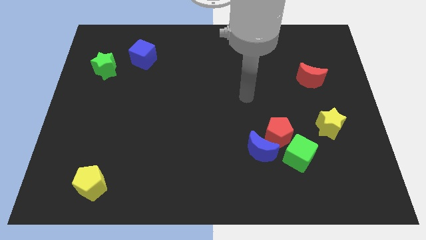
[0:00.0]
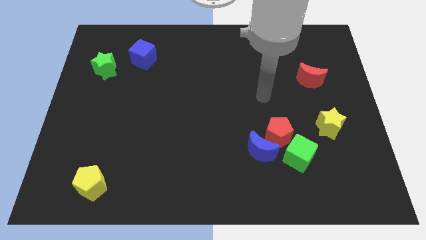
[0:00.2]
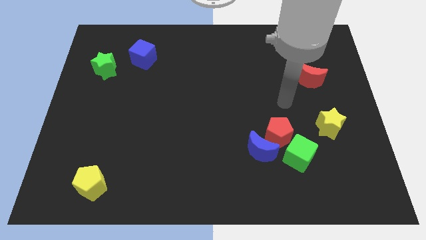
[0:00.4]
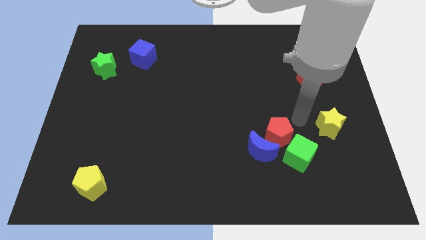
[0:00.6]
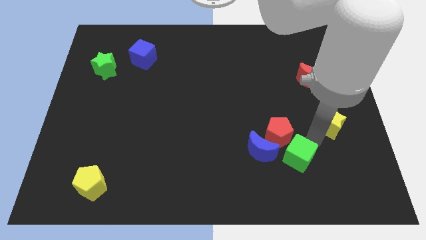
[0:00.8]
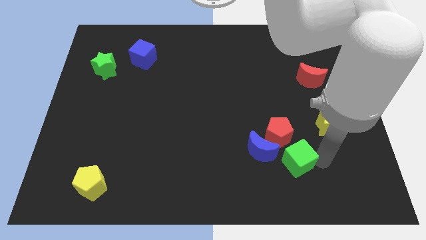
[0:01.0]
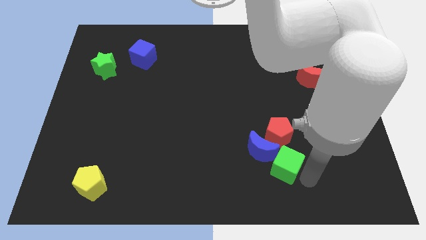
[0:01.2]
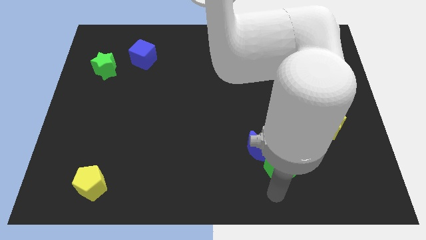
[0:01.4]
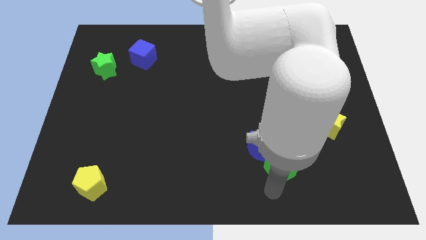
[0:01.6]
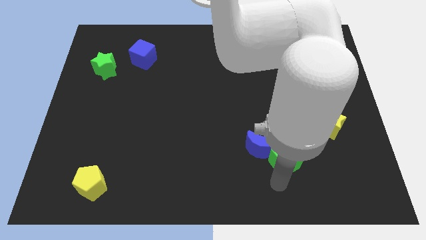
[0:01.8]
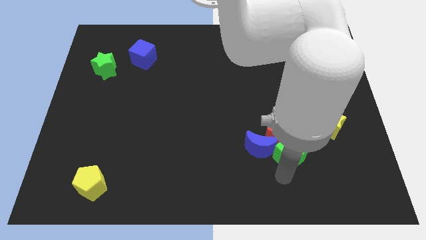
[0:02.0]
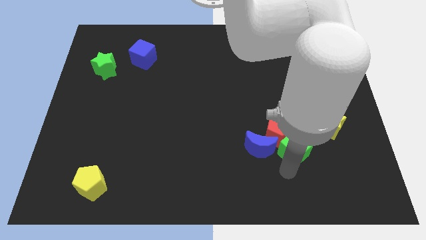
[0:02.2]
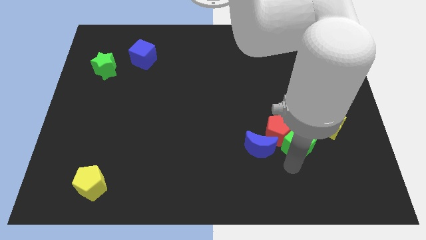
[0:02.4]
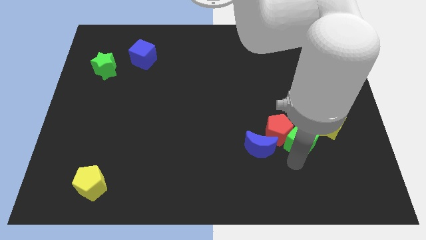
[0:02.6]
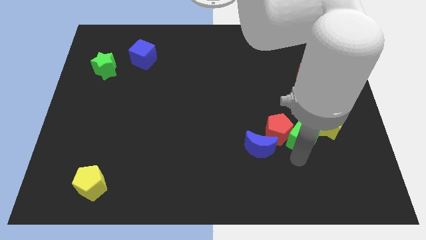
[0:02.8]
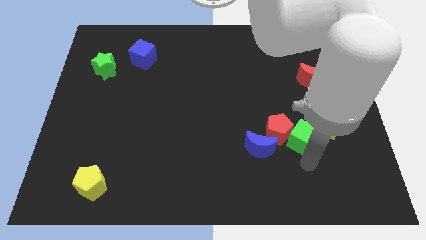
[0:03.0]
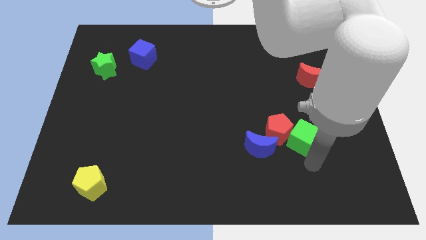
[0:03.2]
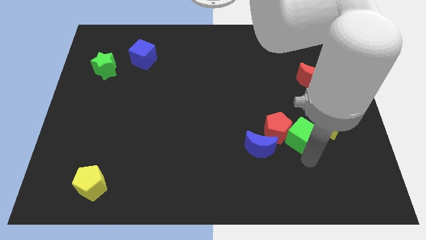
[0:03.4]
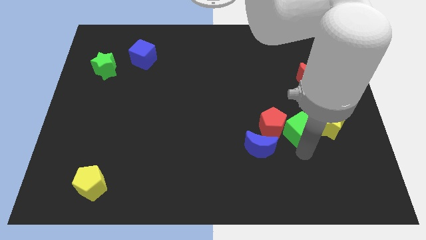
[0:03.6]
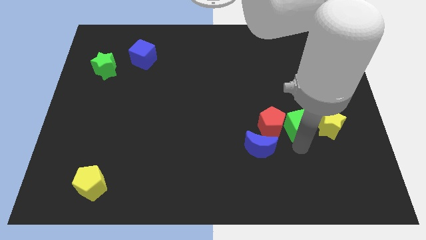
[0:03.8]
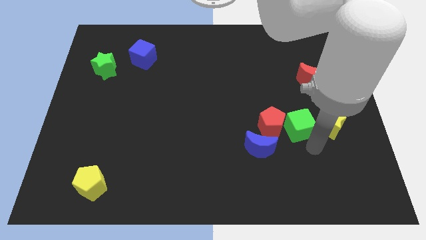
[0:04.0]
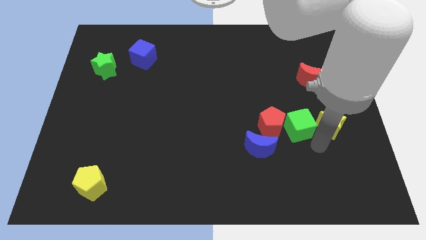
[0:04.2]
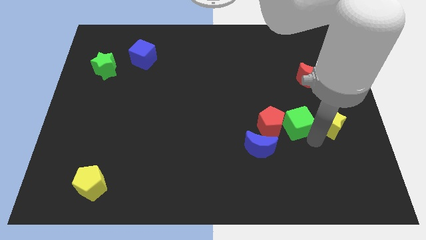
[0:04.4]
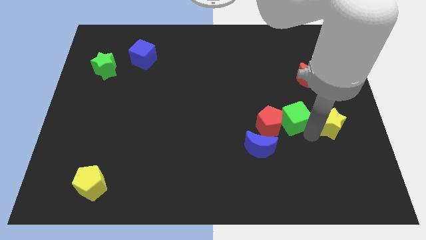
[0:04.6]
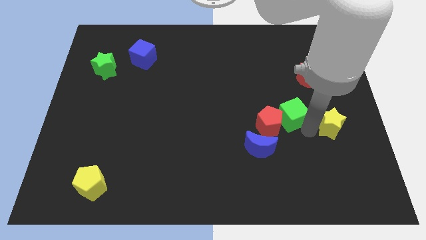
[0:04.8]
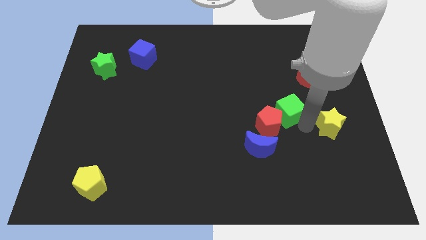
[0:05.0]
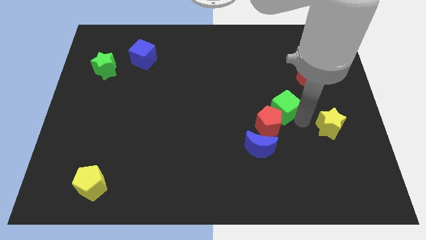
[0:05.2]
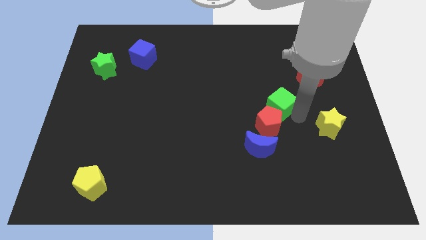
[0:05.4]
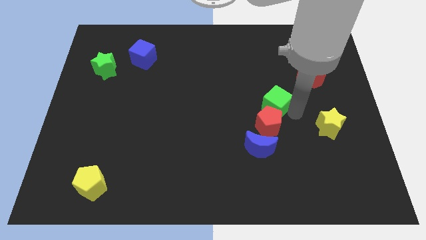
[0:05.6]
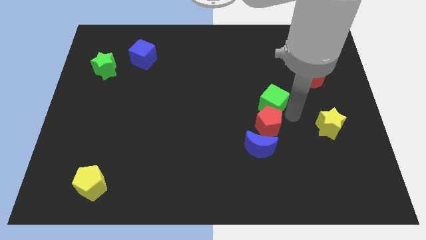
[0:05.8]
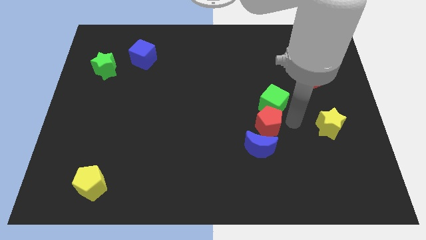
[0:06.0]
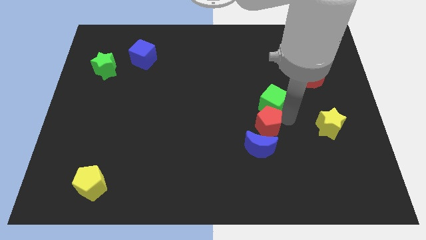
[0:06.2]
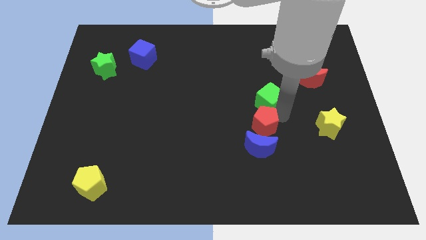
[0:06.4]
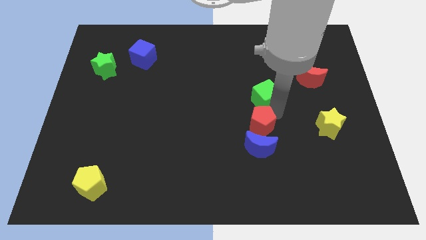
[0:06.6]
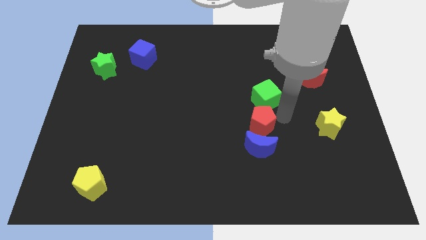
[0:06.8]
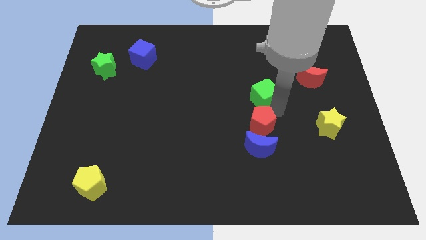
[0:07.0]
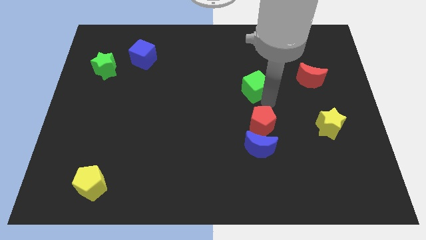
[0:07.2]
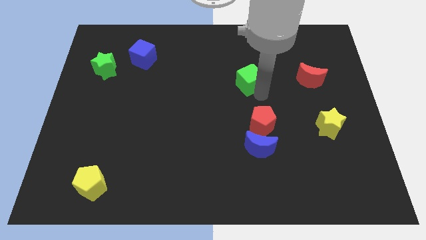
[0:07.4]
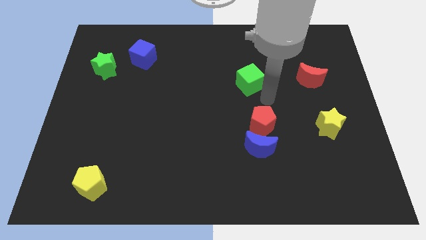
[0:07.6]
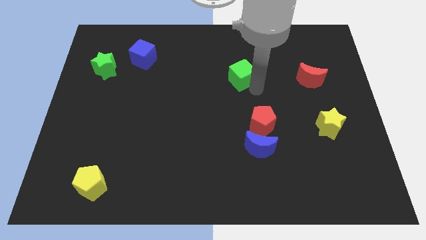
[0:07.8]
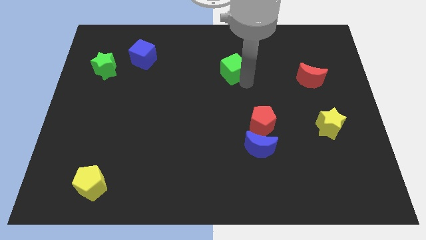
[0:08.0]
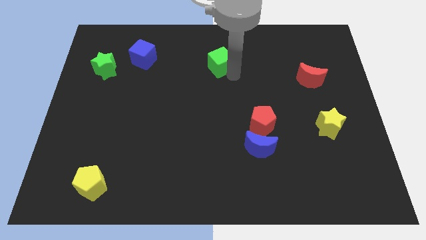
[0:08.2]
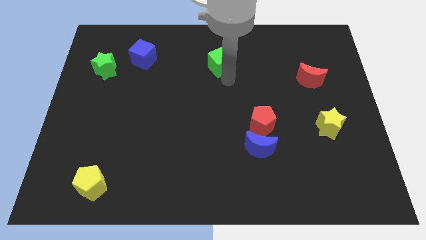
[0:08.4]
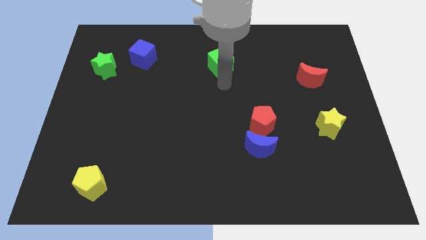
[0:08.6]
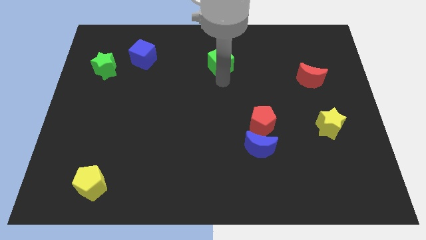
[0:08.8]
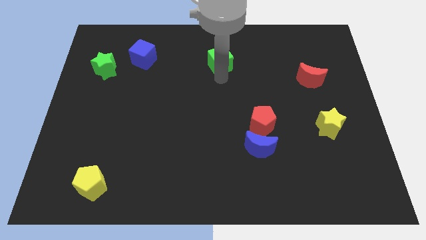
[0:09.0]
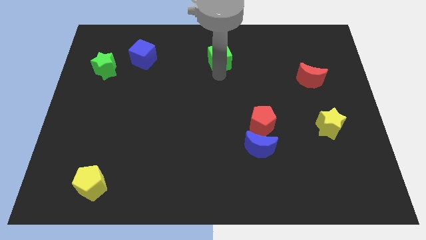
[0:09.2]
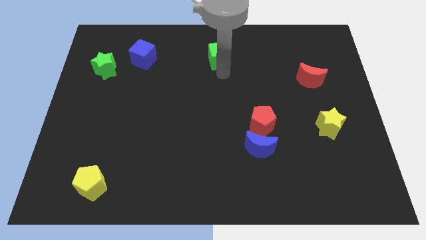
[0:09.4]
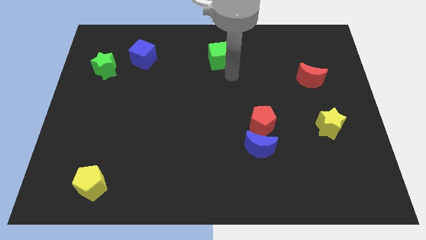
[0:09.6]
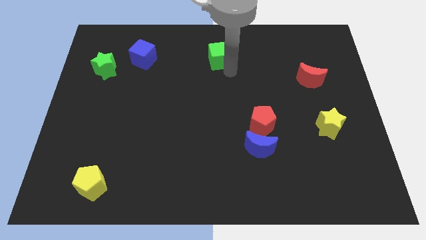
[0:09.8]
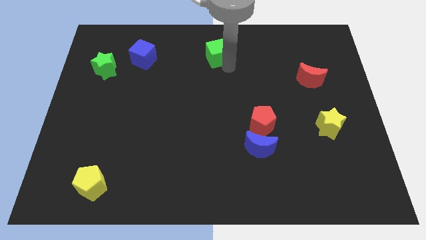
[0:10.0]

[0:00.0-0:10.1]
slide the green cube to the towards your base

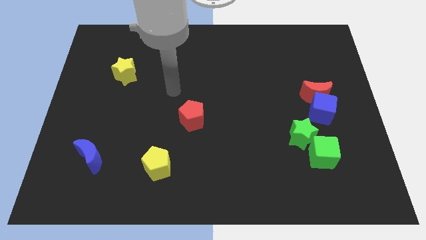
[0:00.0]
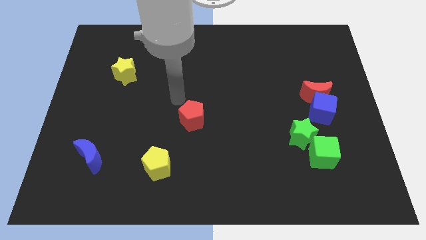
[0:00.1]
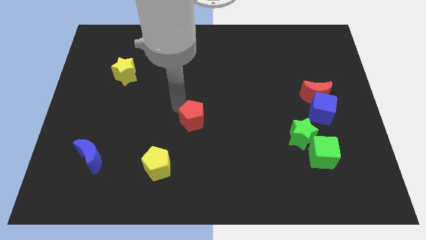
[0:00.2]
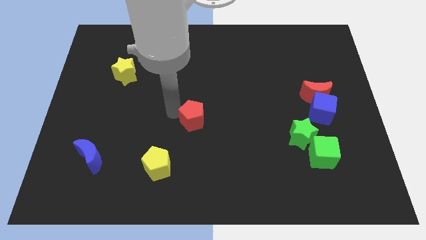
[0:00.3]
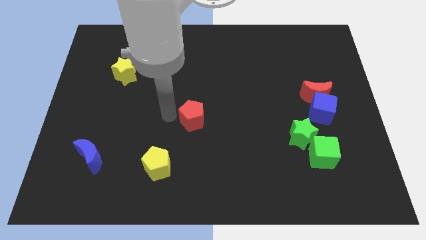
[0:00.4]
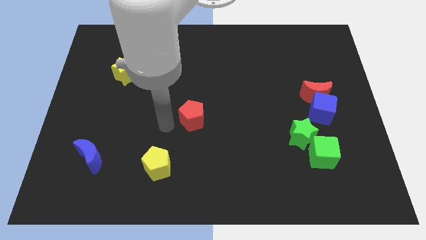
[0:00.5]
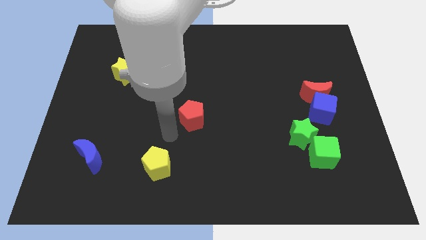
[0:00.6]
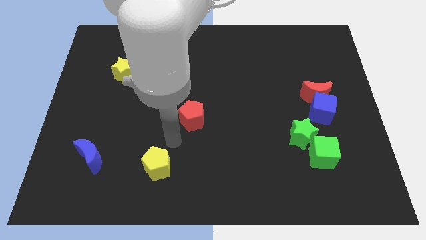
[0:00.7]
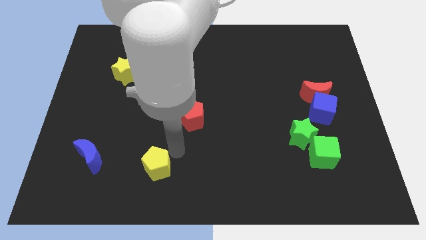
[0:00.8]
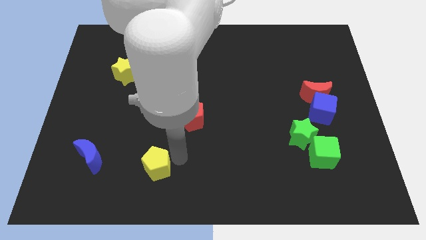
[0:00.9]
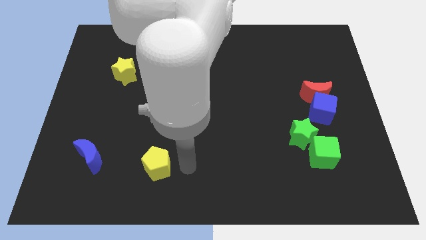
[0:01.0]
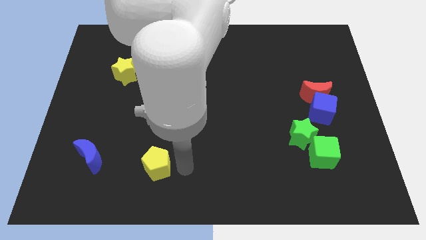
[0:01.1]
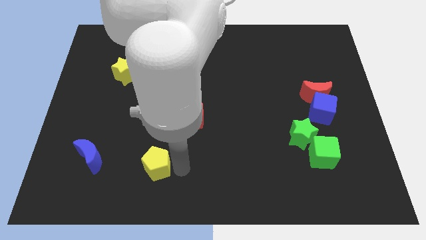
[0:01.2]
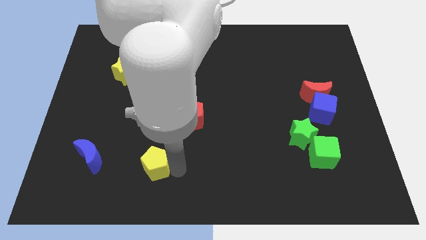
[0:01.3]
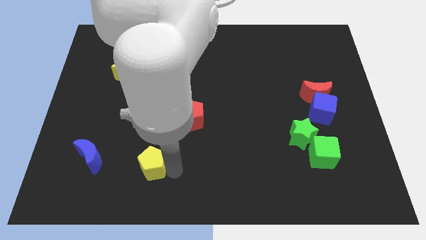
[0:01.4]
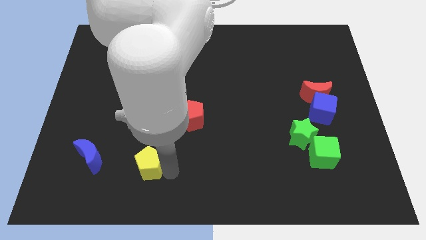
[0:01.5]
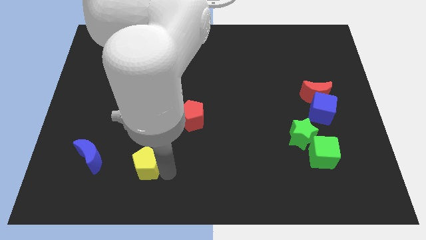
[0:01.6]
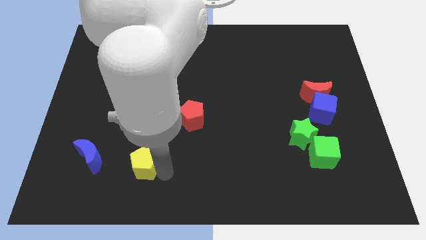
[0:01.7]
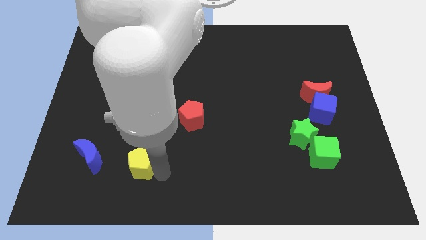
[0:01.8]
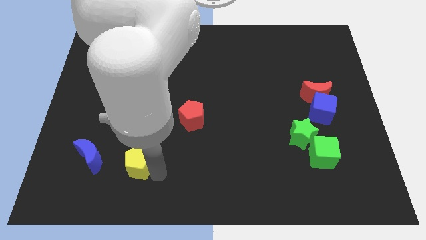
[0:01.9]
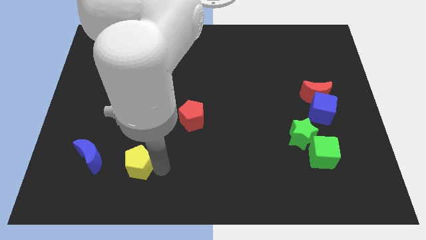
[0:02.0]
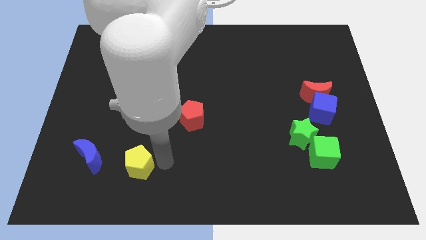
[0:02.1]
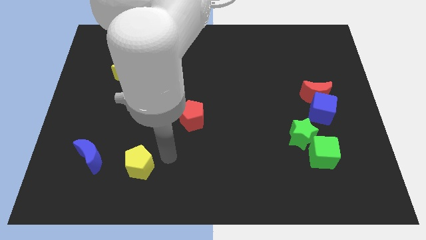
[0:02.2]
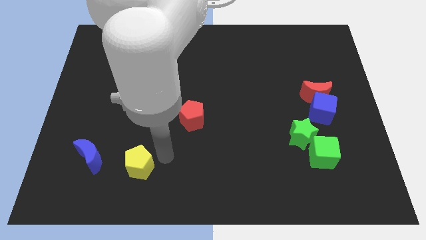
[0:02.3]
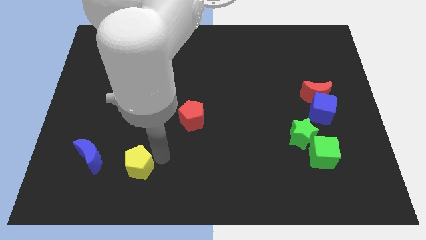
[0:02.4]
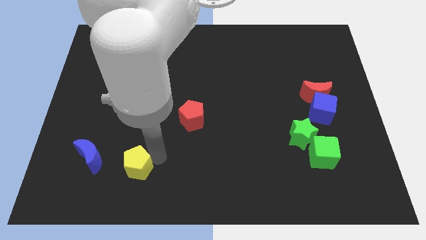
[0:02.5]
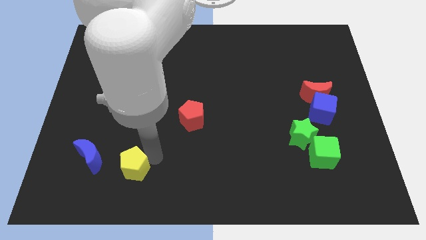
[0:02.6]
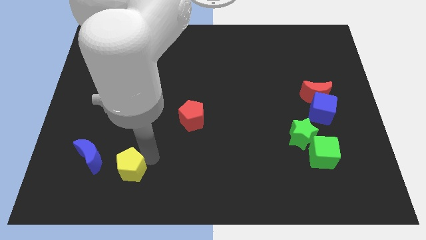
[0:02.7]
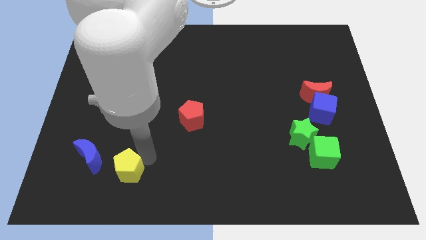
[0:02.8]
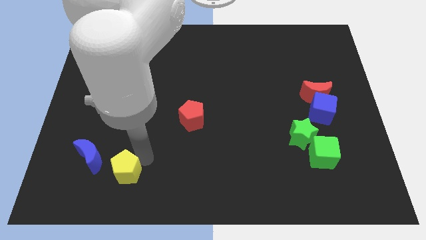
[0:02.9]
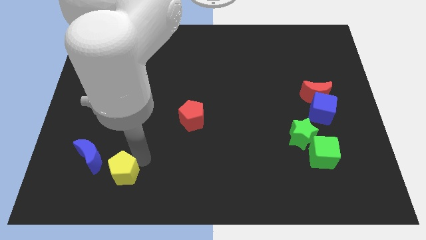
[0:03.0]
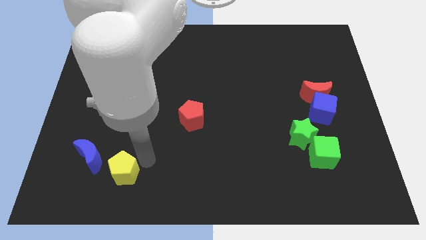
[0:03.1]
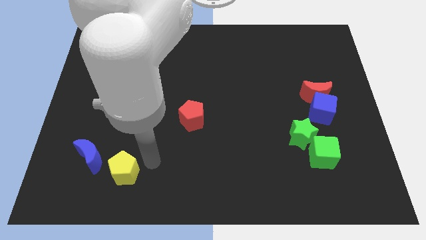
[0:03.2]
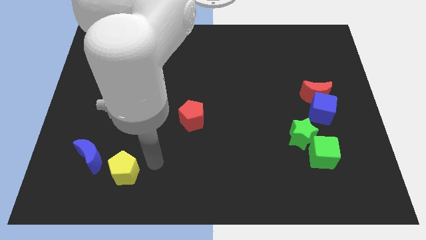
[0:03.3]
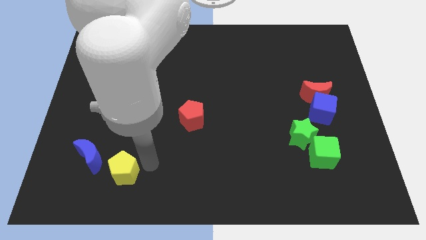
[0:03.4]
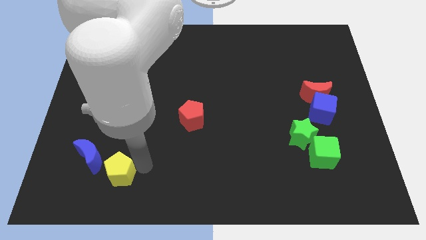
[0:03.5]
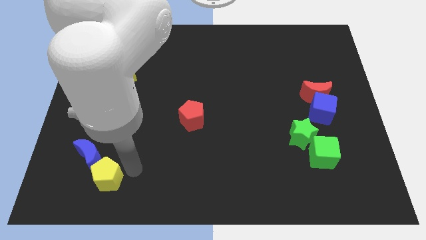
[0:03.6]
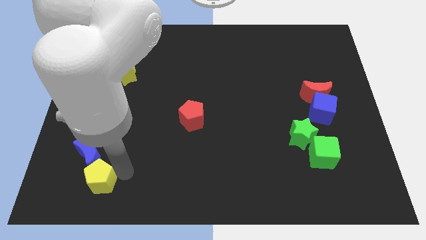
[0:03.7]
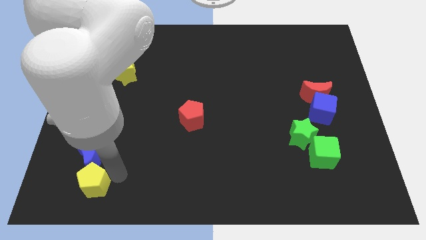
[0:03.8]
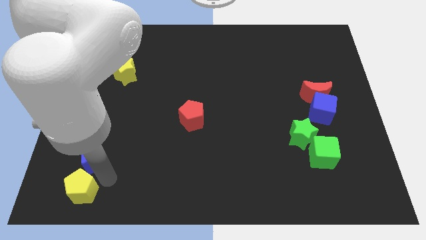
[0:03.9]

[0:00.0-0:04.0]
push the yellow pentagon to the bottom left of the board
